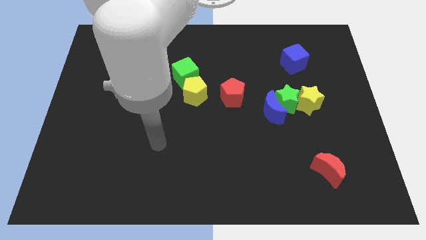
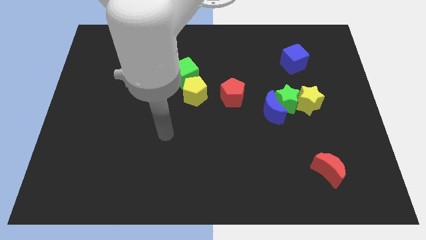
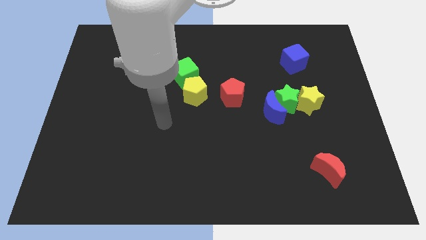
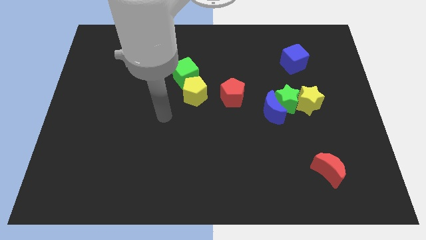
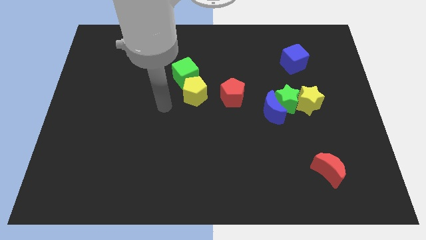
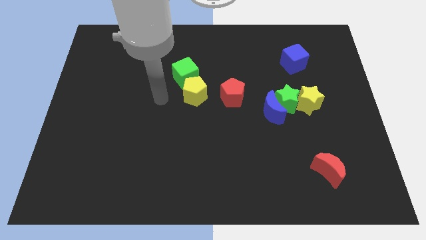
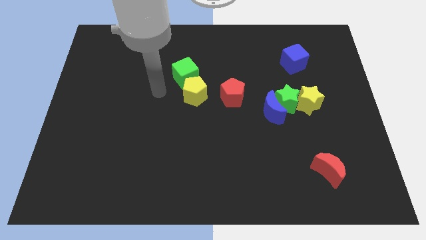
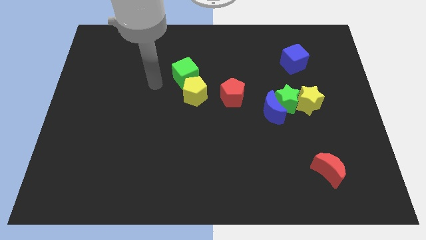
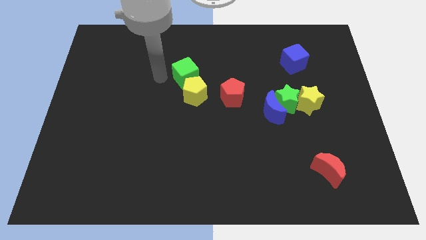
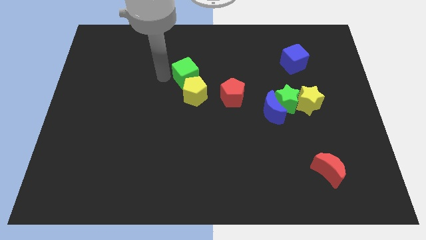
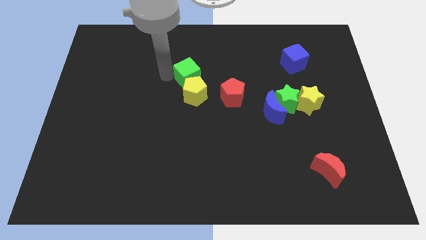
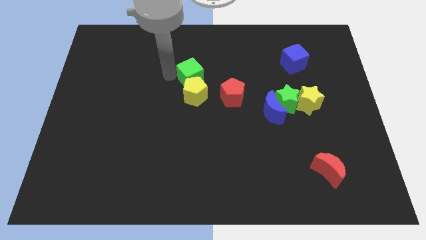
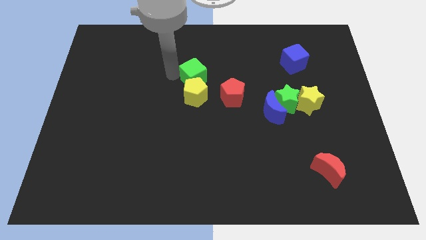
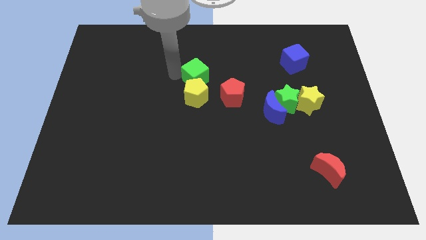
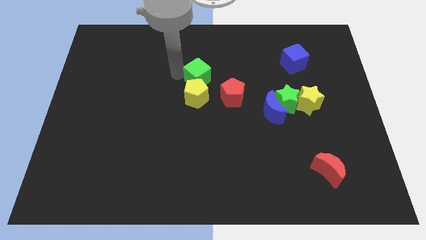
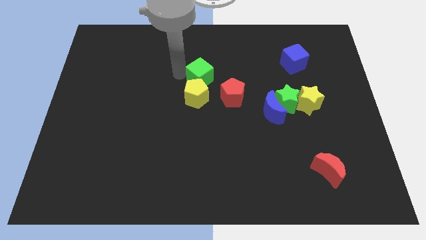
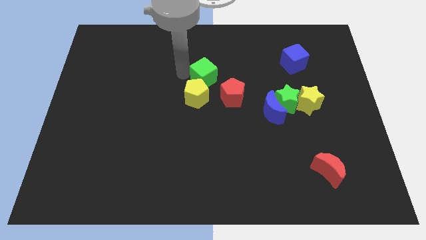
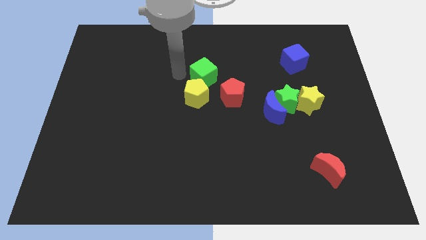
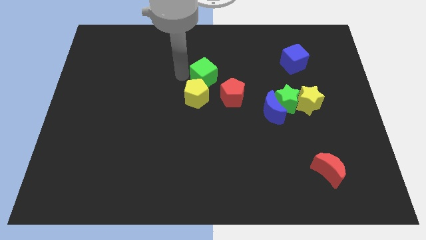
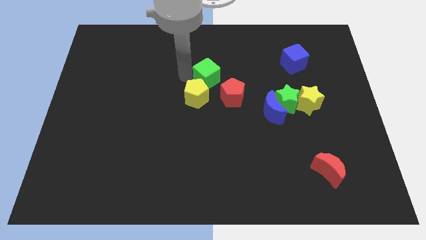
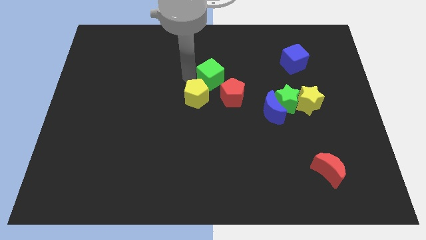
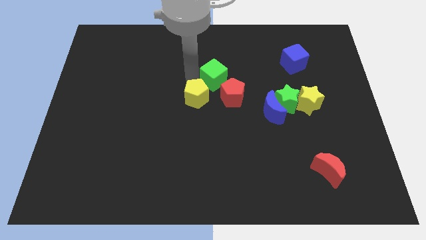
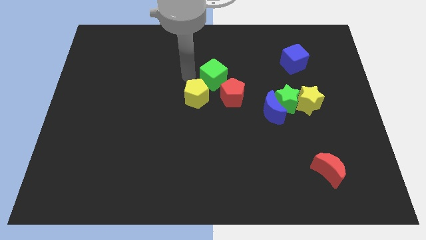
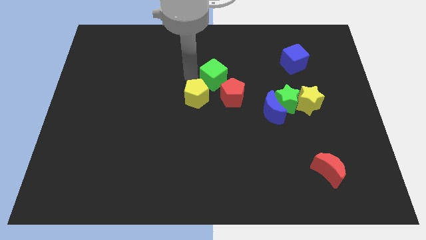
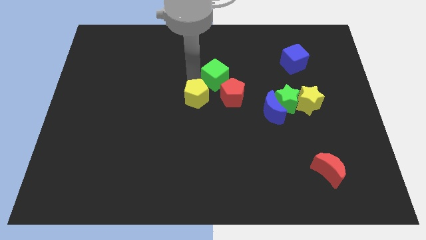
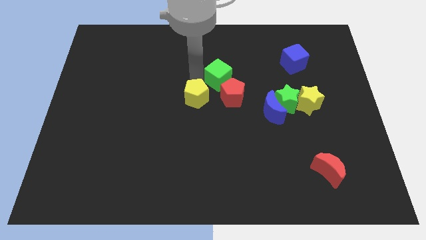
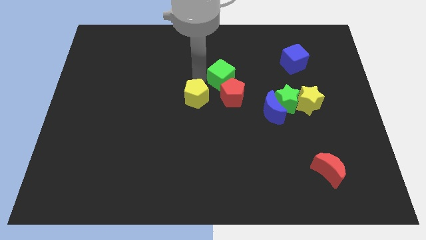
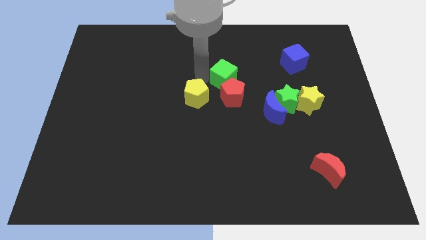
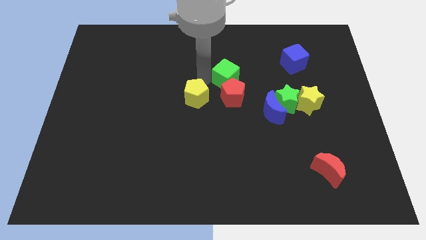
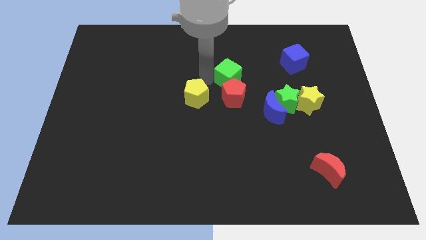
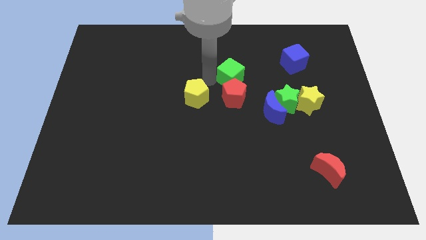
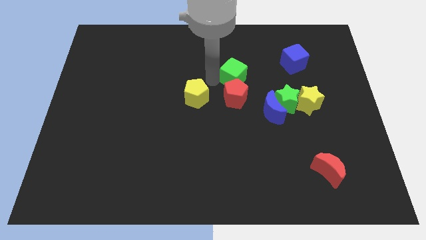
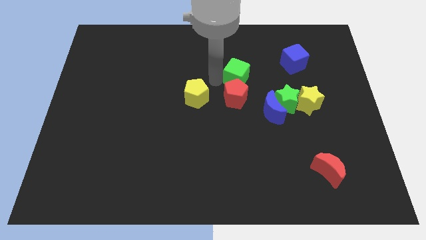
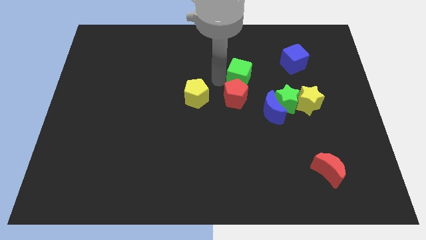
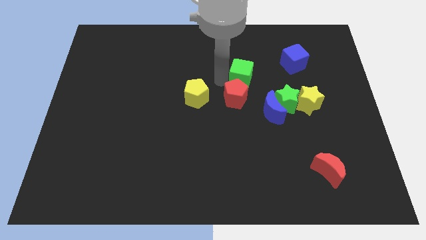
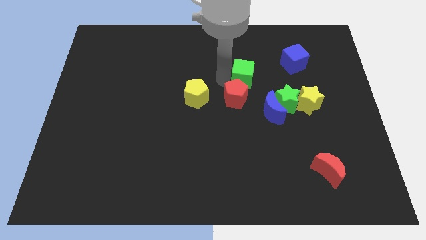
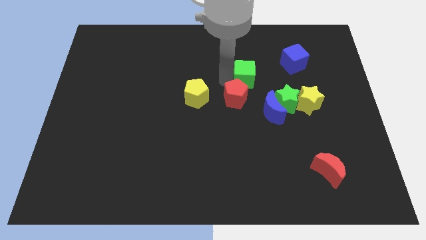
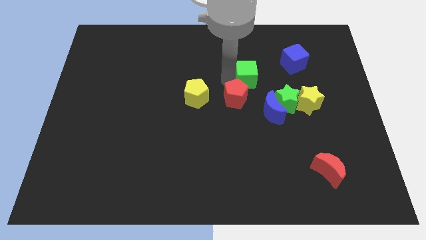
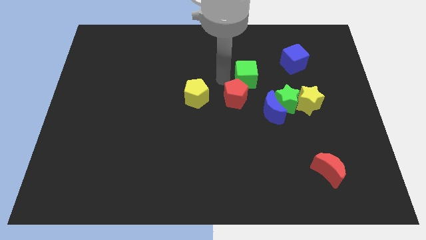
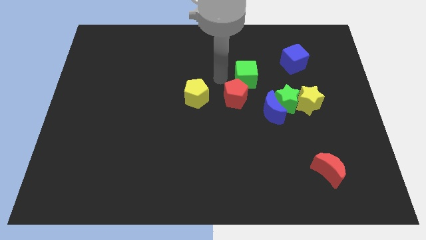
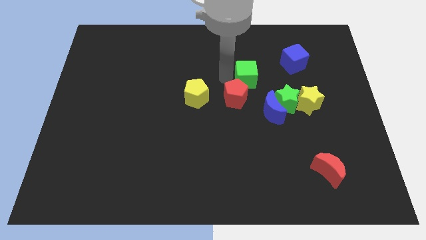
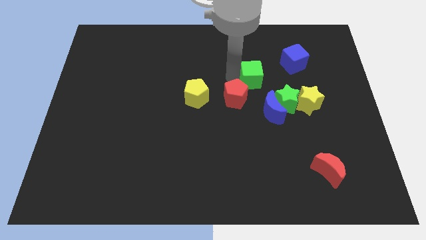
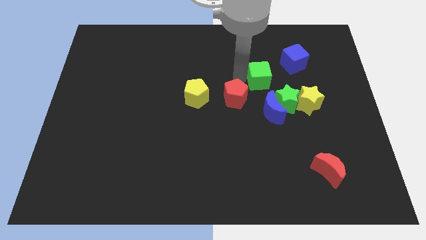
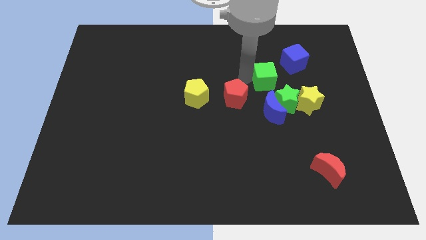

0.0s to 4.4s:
move the green cube to the right

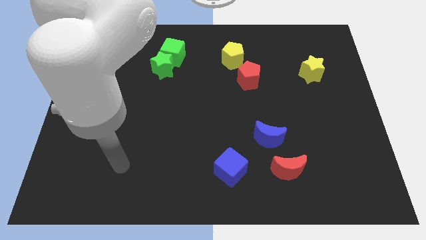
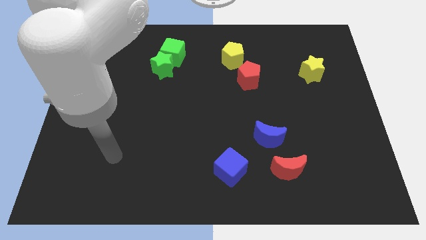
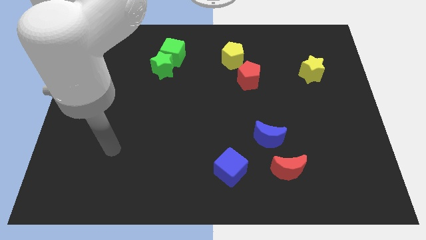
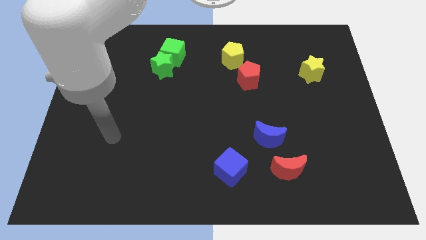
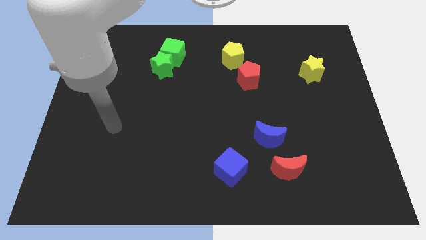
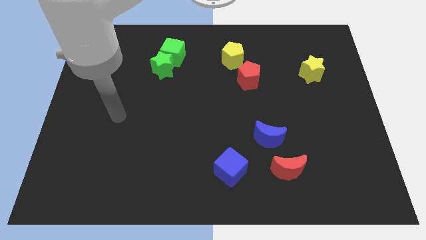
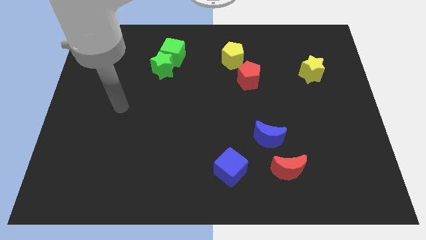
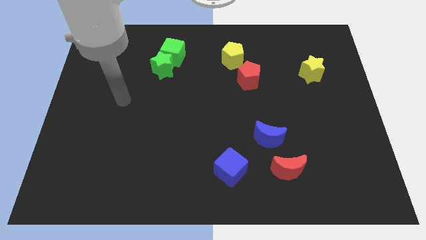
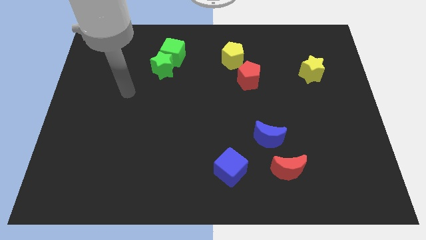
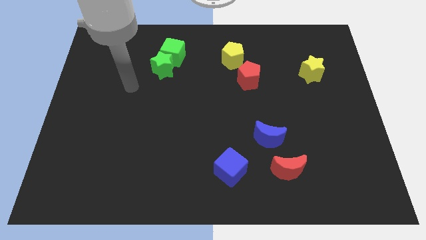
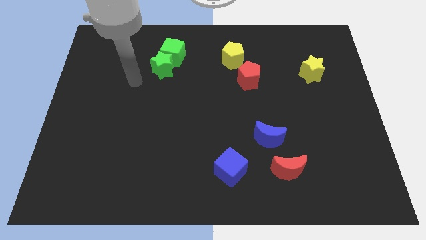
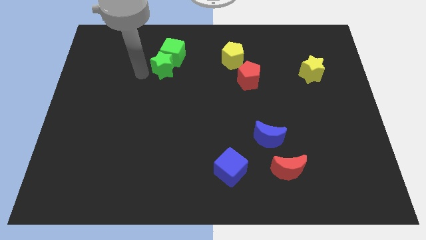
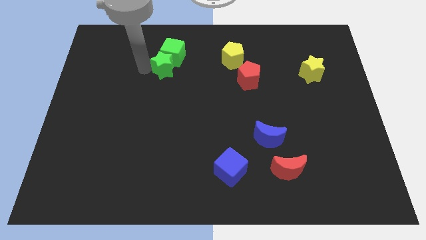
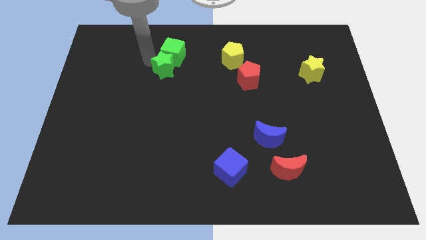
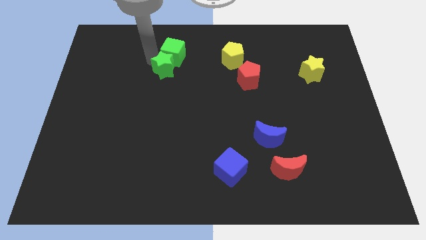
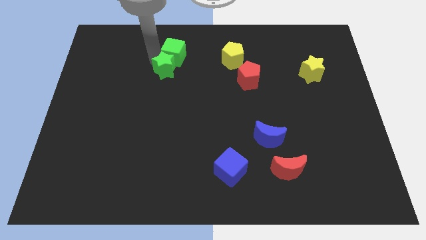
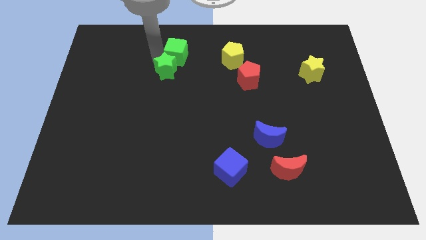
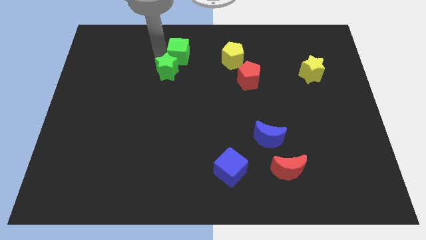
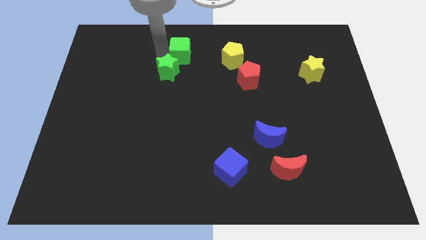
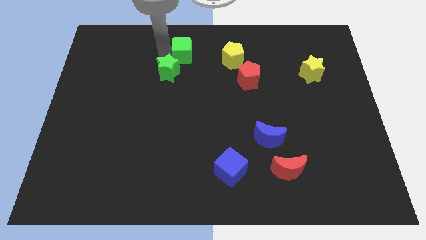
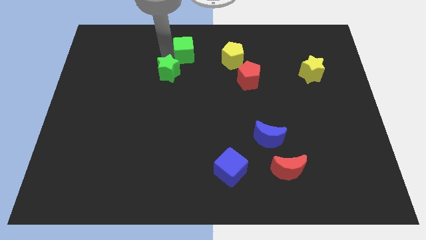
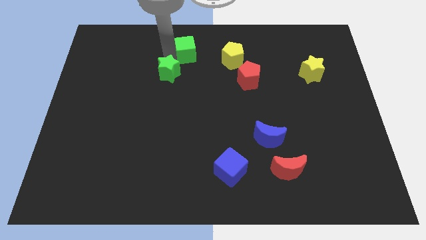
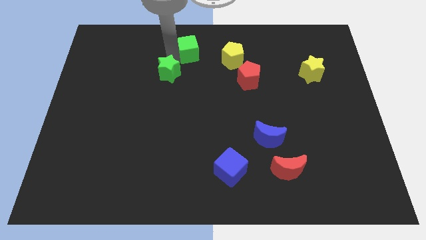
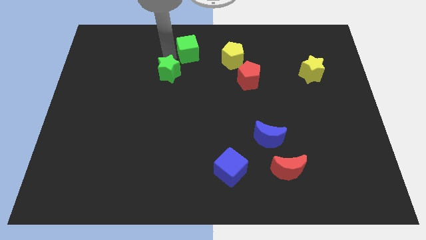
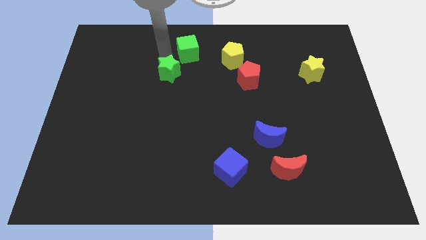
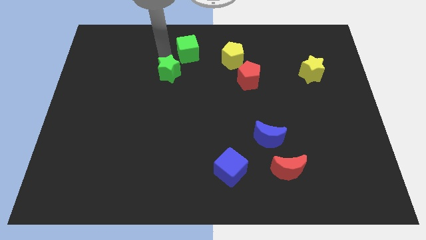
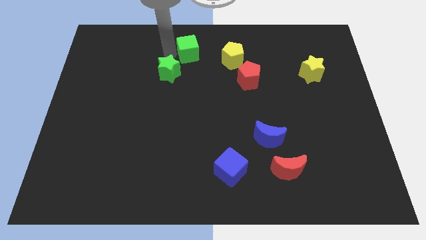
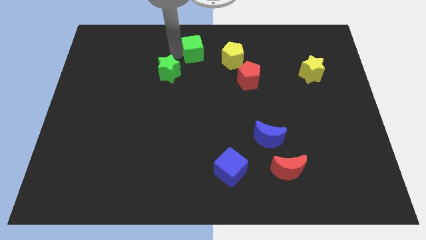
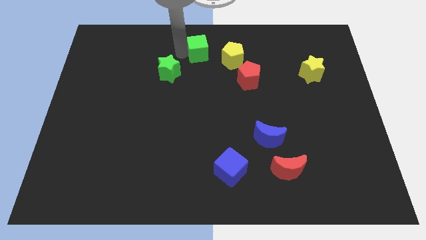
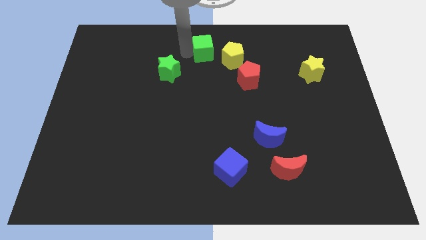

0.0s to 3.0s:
move the green cube somewhat right

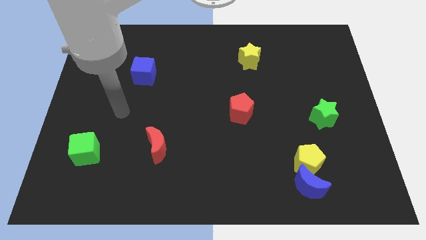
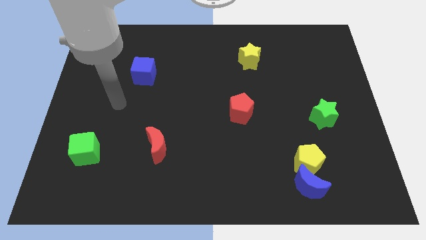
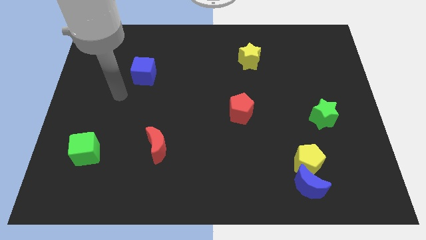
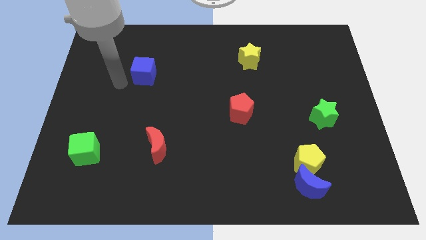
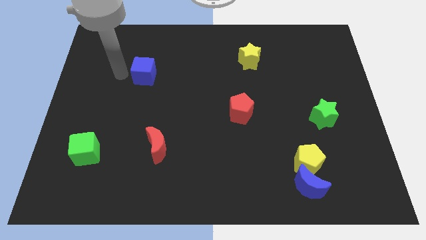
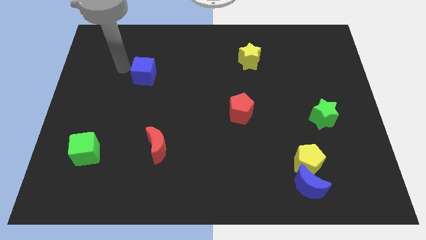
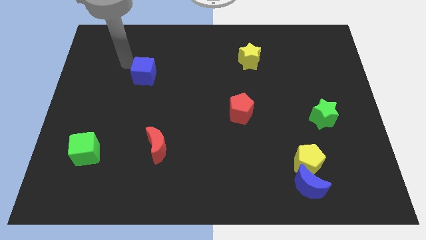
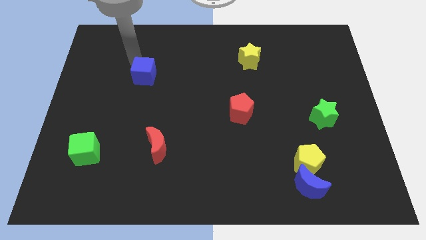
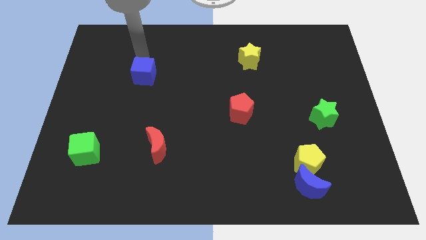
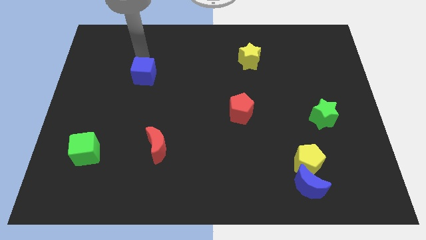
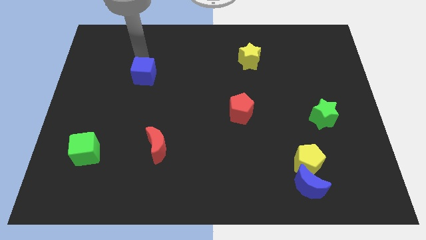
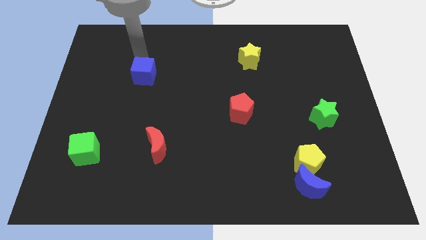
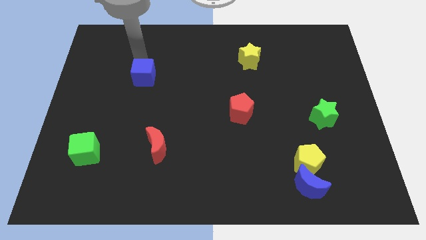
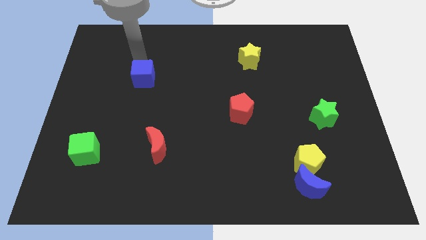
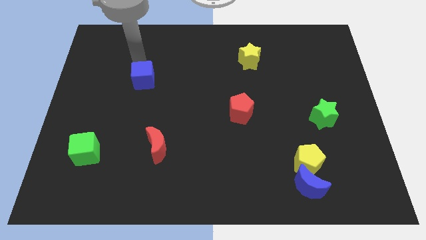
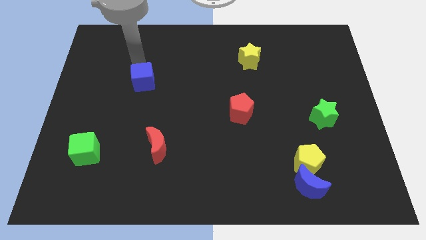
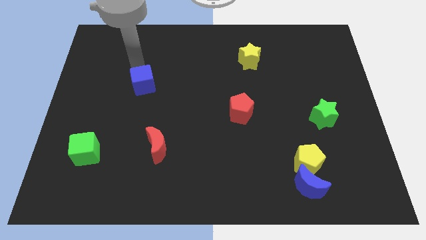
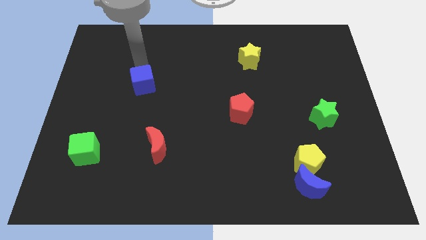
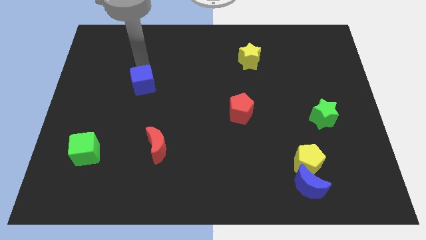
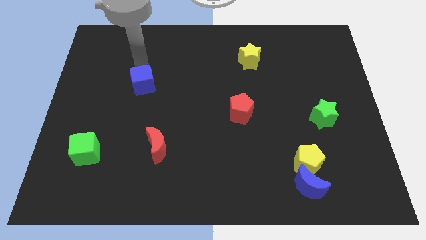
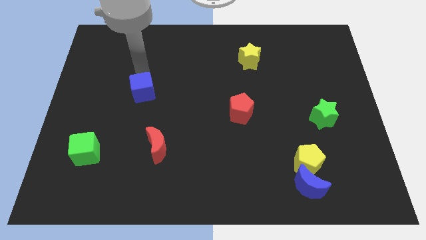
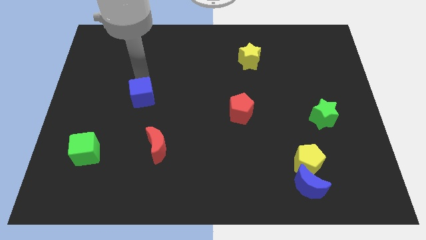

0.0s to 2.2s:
slide the blue cube downwards a little
